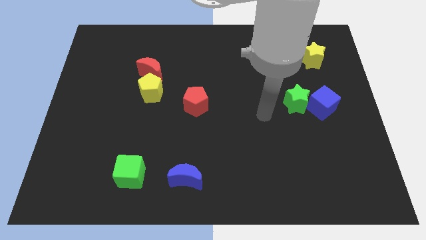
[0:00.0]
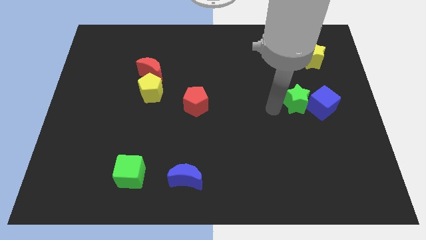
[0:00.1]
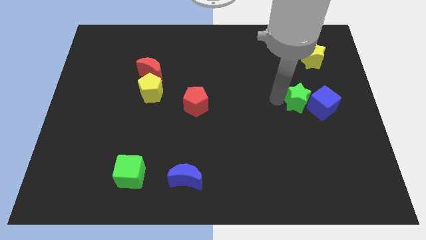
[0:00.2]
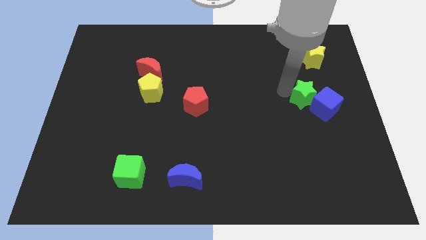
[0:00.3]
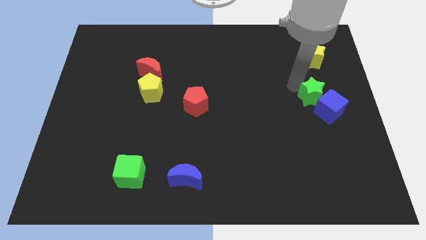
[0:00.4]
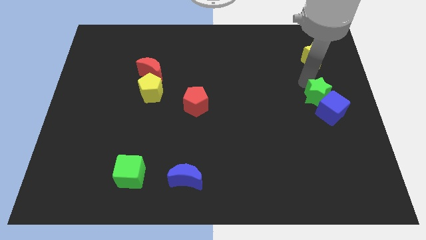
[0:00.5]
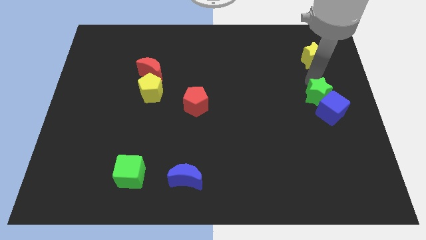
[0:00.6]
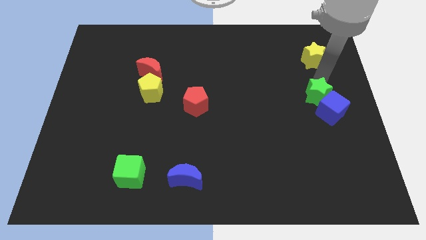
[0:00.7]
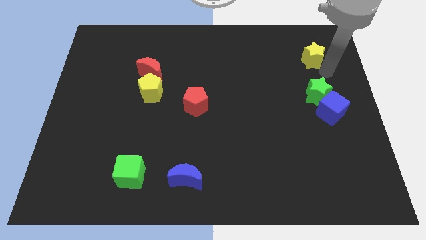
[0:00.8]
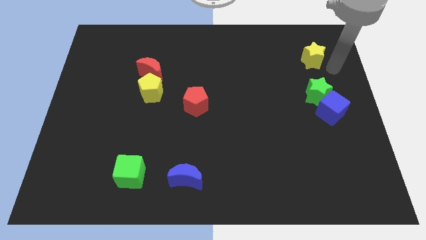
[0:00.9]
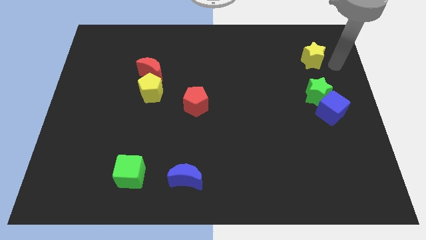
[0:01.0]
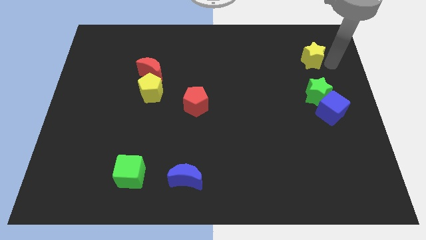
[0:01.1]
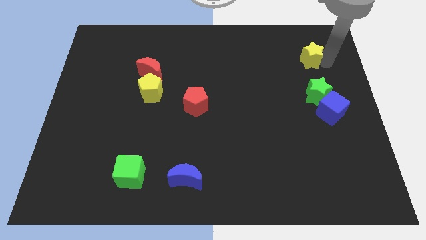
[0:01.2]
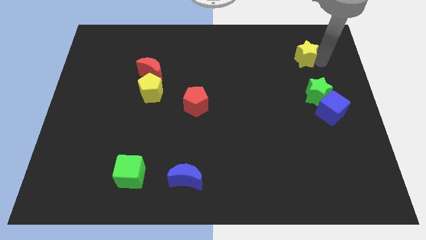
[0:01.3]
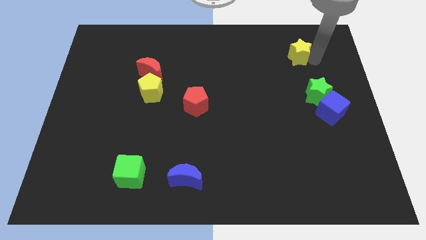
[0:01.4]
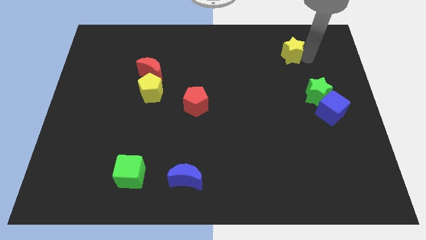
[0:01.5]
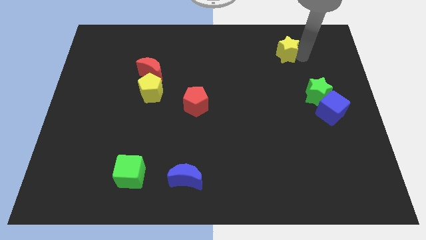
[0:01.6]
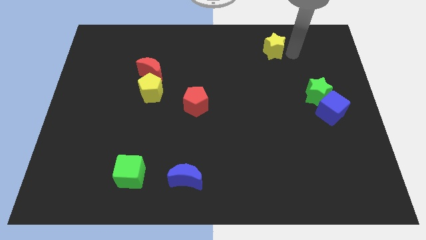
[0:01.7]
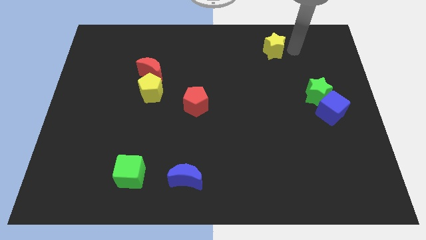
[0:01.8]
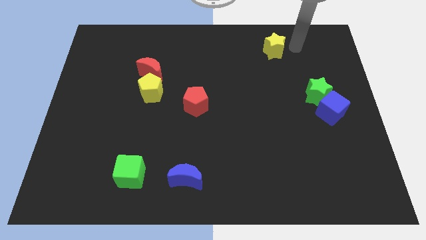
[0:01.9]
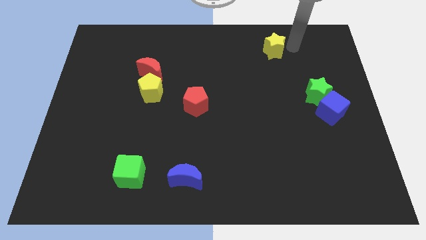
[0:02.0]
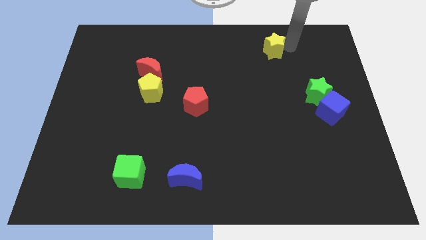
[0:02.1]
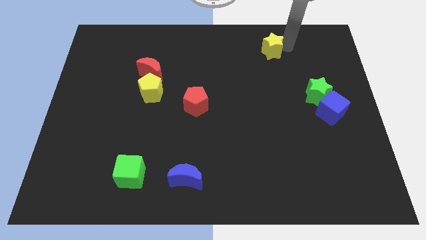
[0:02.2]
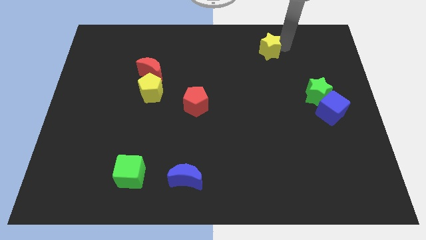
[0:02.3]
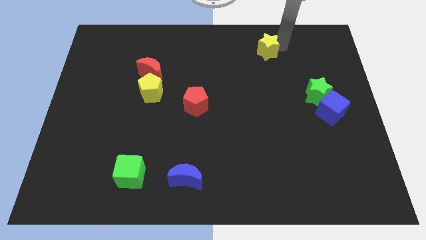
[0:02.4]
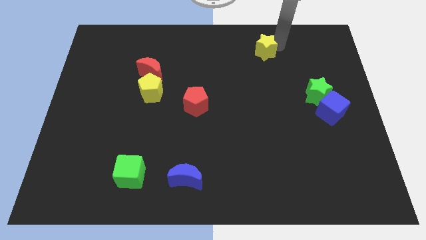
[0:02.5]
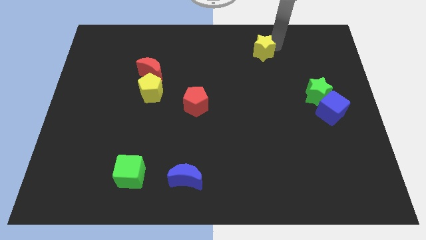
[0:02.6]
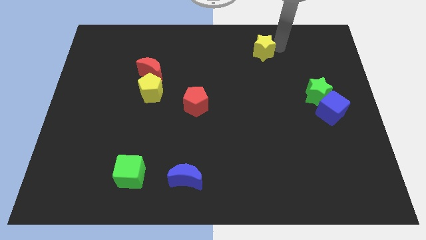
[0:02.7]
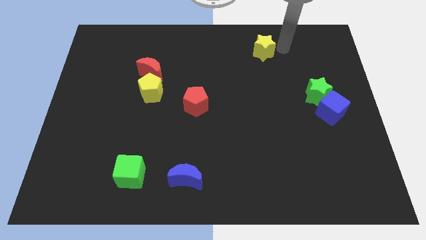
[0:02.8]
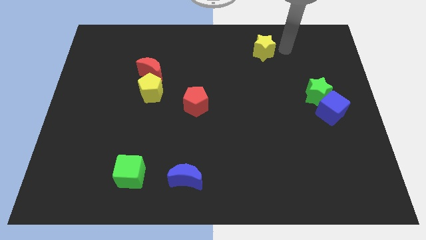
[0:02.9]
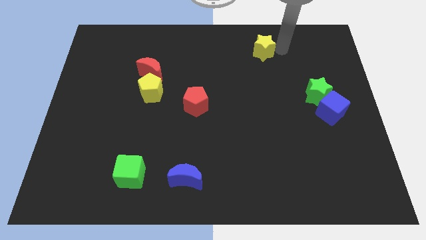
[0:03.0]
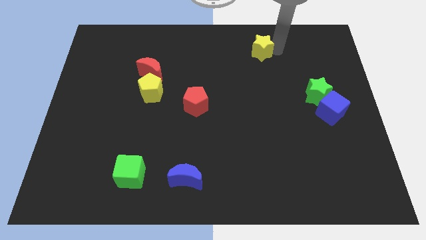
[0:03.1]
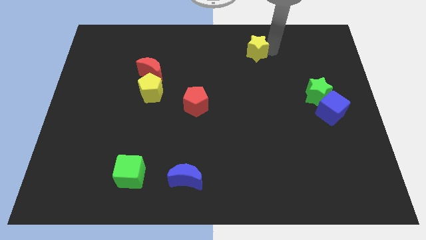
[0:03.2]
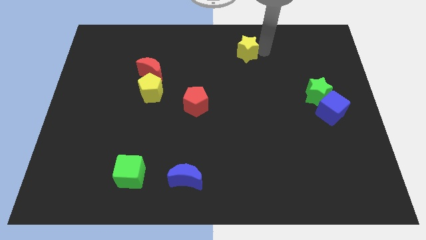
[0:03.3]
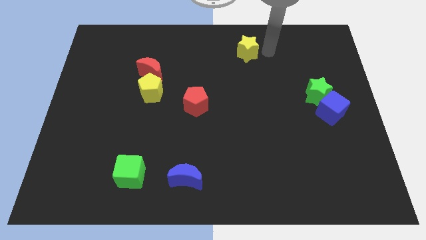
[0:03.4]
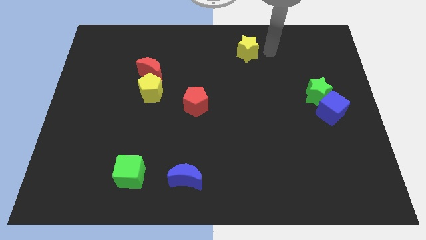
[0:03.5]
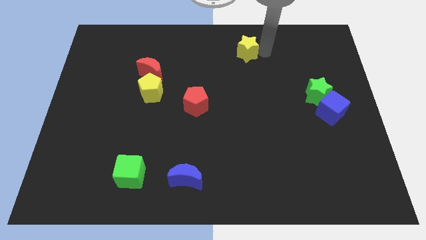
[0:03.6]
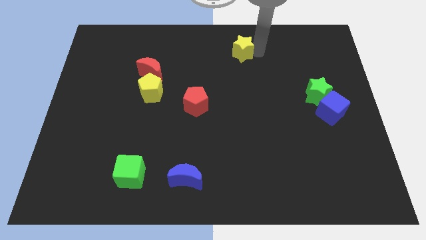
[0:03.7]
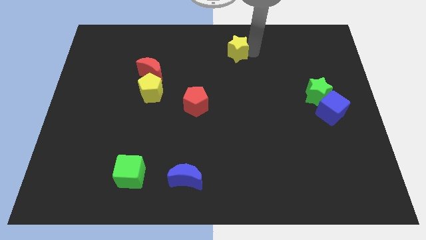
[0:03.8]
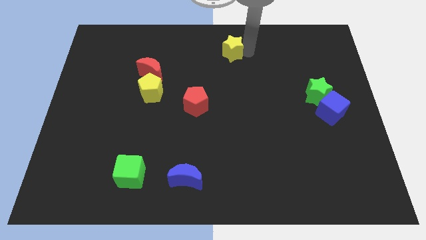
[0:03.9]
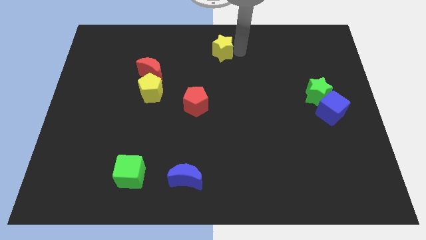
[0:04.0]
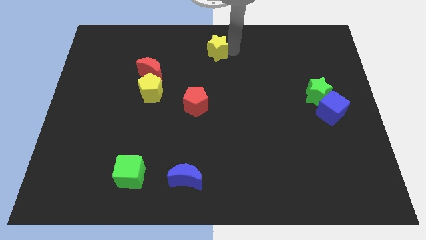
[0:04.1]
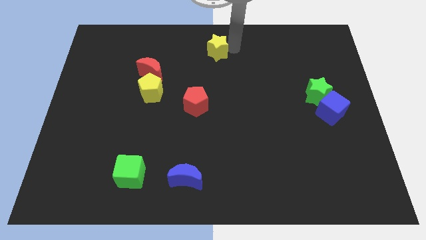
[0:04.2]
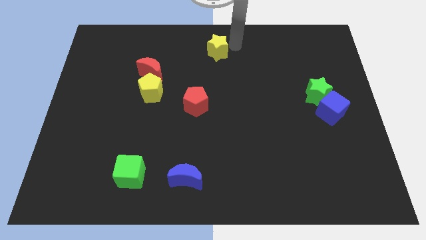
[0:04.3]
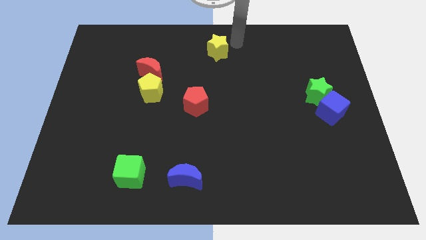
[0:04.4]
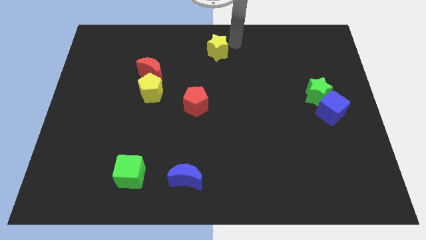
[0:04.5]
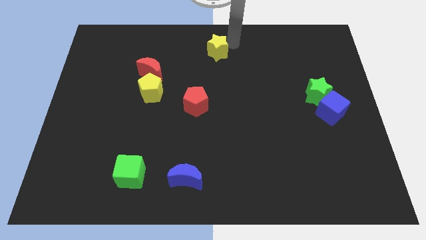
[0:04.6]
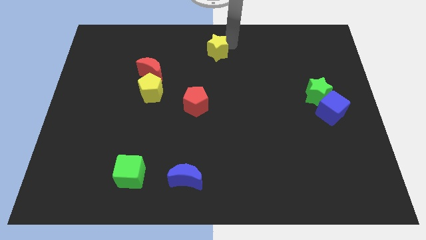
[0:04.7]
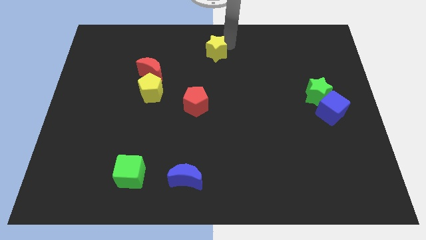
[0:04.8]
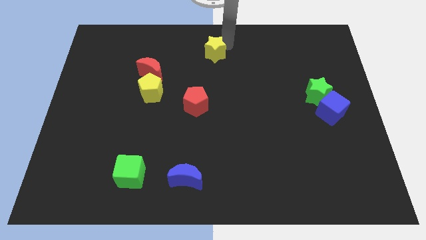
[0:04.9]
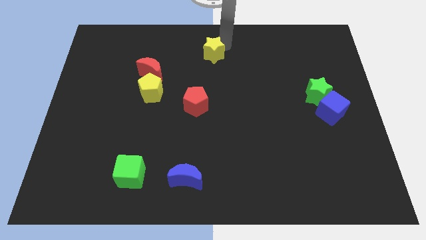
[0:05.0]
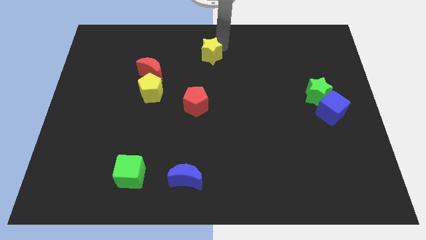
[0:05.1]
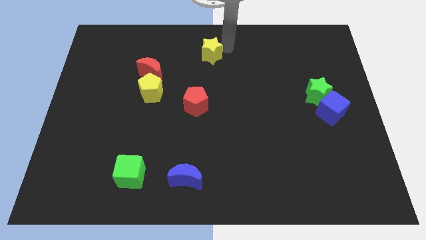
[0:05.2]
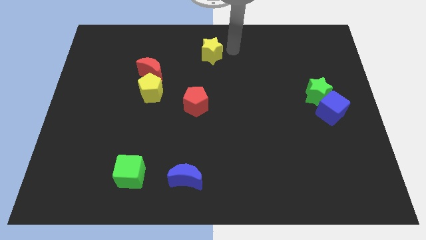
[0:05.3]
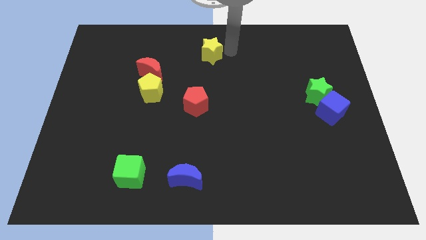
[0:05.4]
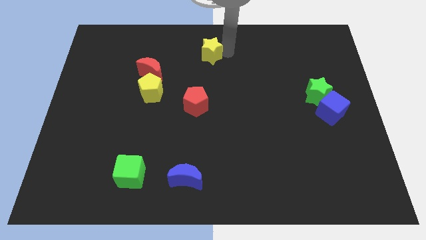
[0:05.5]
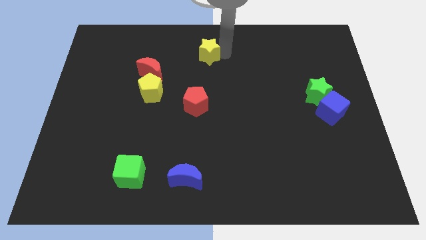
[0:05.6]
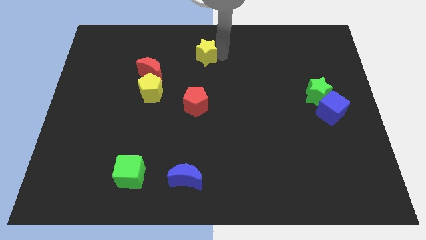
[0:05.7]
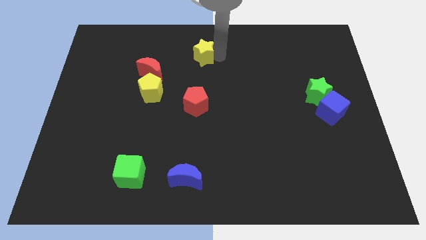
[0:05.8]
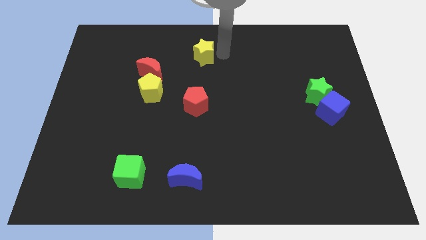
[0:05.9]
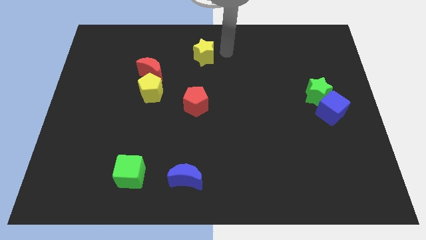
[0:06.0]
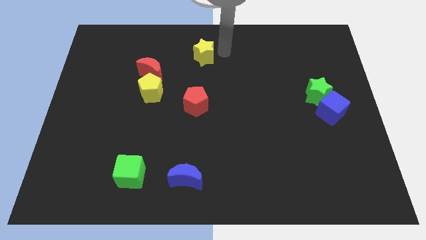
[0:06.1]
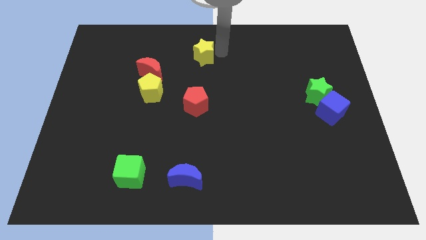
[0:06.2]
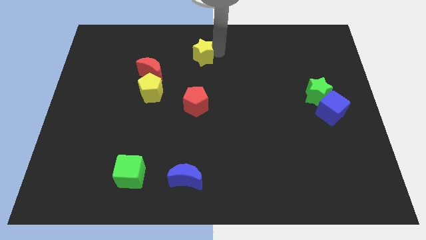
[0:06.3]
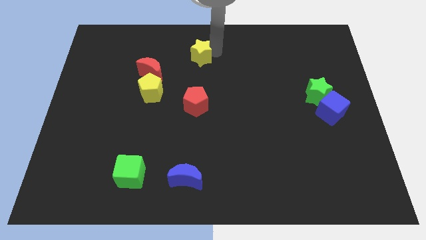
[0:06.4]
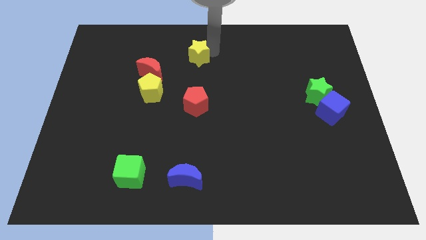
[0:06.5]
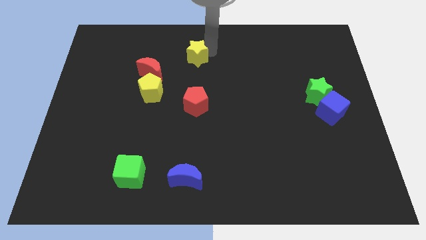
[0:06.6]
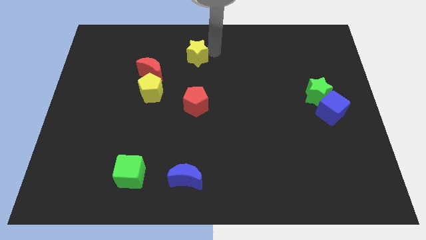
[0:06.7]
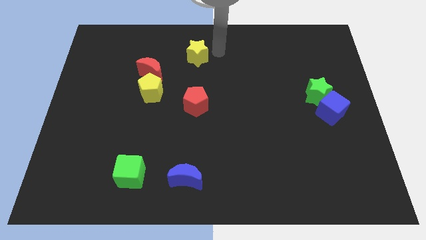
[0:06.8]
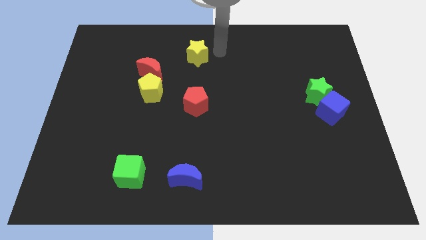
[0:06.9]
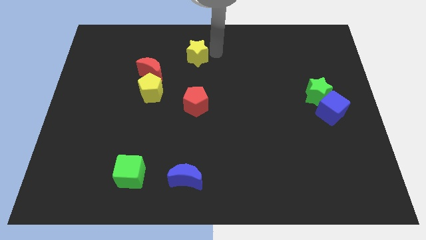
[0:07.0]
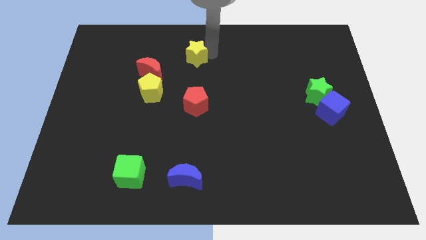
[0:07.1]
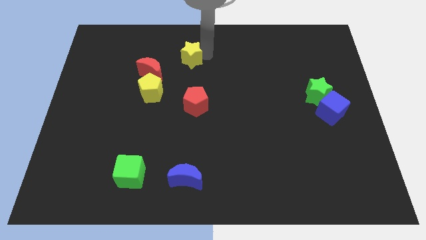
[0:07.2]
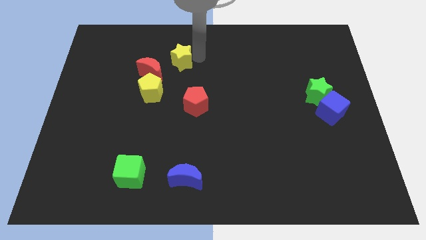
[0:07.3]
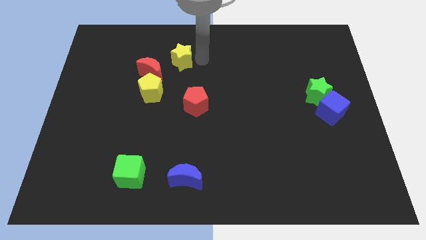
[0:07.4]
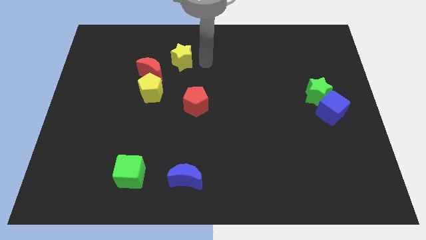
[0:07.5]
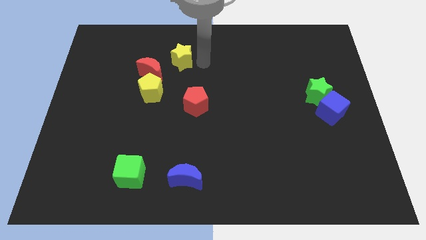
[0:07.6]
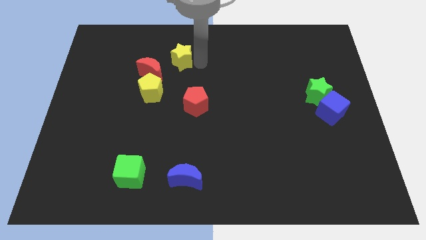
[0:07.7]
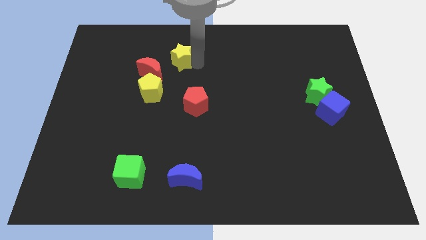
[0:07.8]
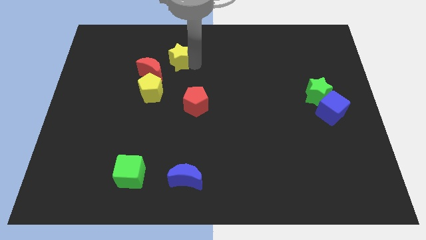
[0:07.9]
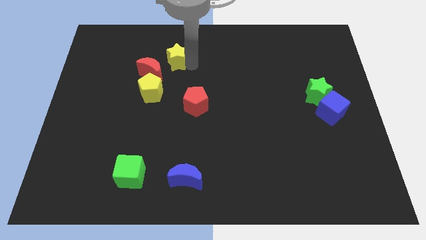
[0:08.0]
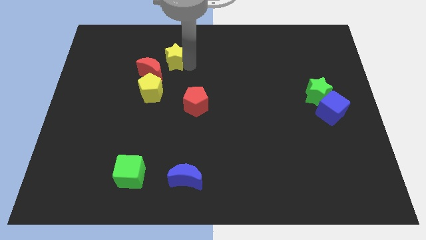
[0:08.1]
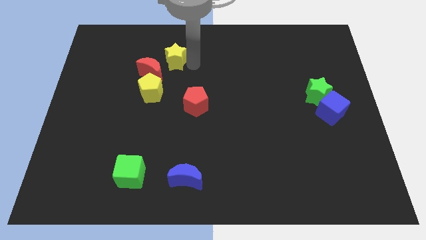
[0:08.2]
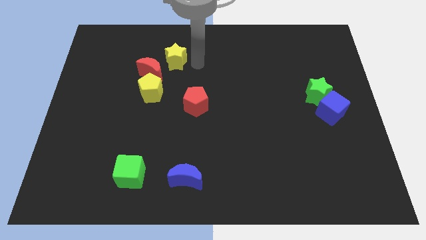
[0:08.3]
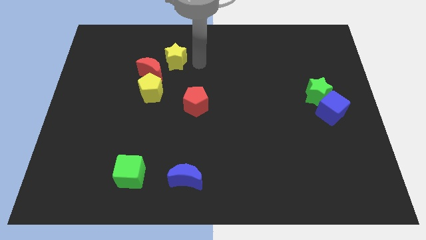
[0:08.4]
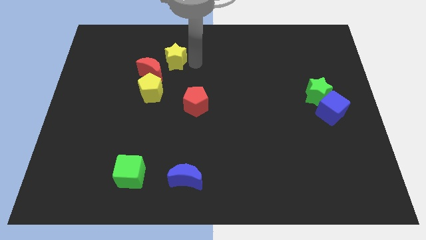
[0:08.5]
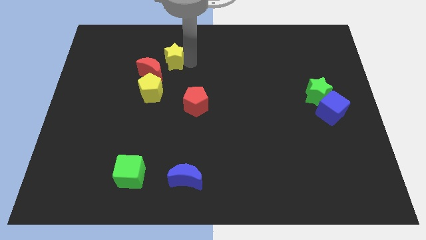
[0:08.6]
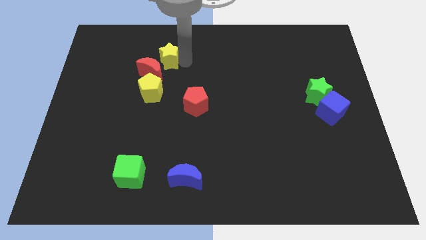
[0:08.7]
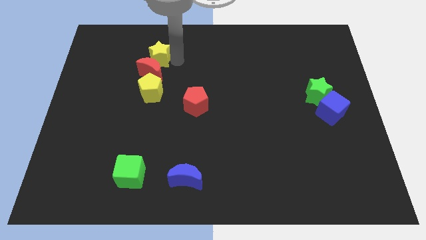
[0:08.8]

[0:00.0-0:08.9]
move the yellow star diagonally up and to the left of the red moon
